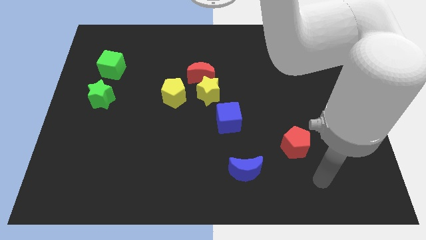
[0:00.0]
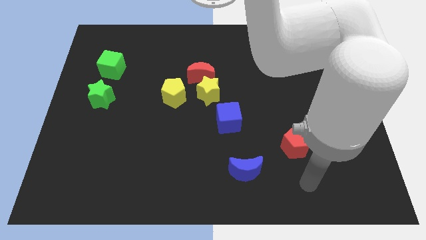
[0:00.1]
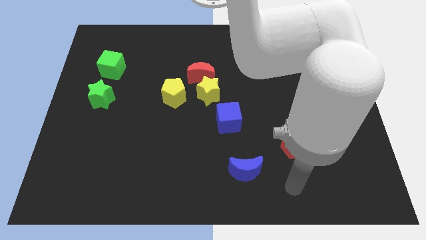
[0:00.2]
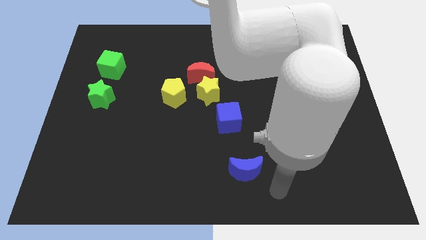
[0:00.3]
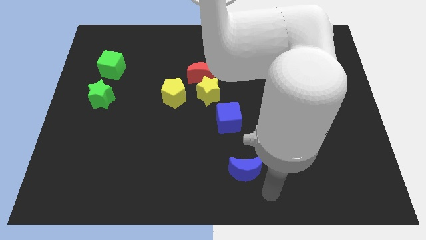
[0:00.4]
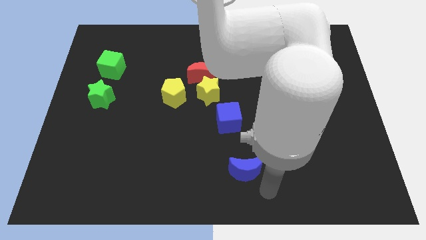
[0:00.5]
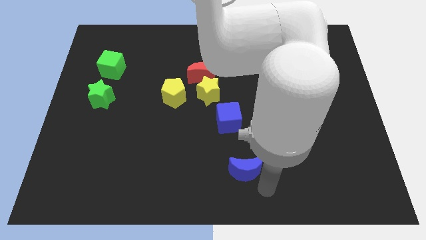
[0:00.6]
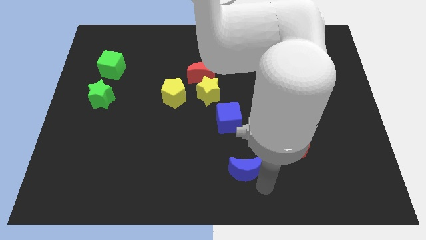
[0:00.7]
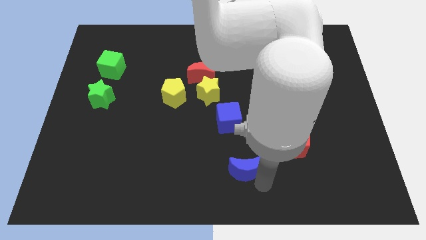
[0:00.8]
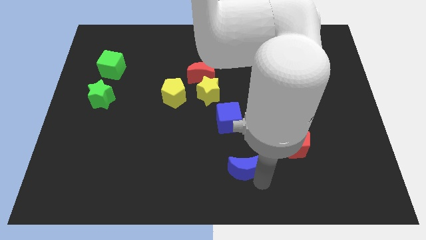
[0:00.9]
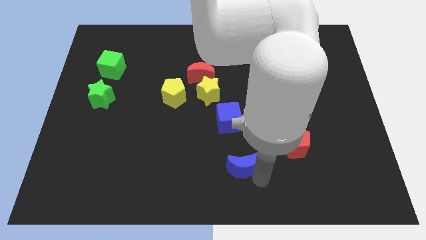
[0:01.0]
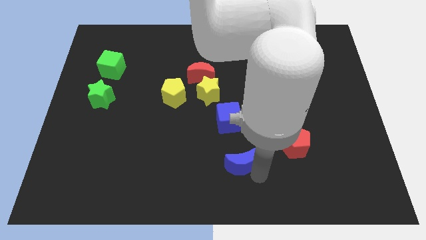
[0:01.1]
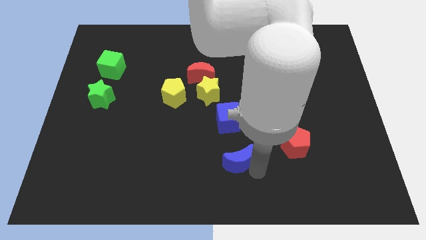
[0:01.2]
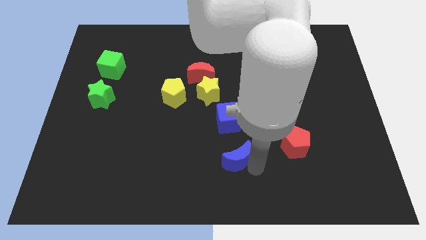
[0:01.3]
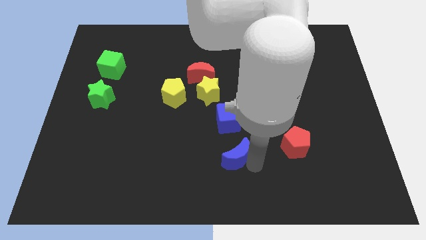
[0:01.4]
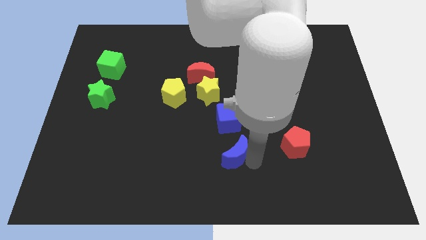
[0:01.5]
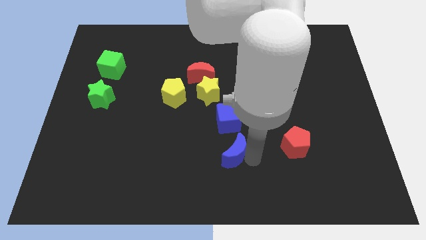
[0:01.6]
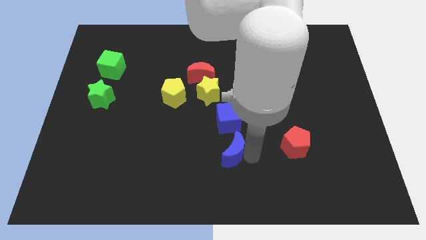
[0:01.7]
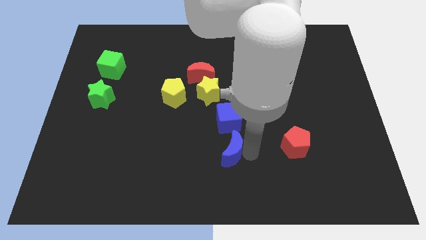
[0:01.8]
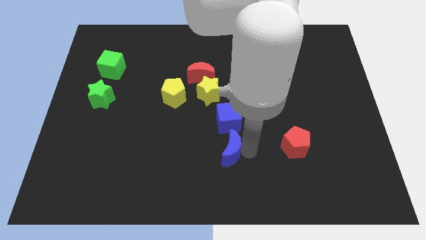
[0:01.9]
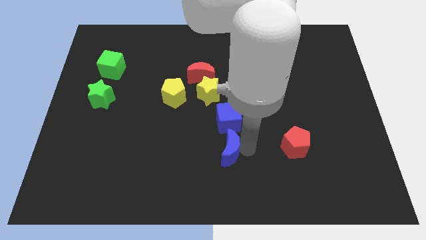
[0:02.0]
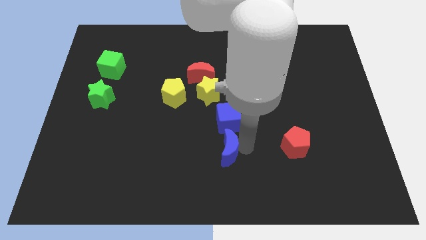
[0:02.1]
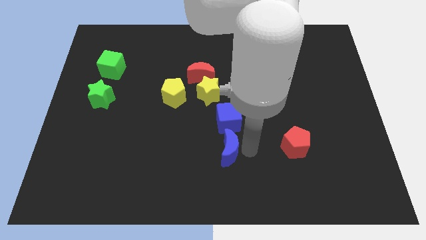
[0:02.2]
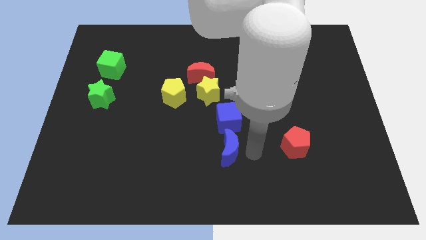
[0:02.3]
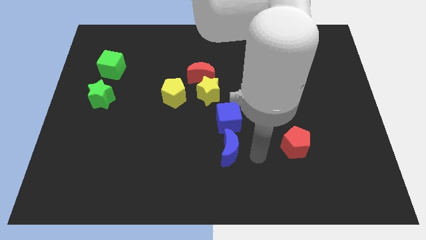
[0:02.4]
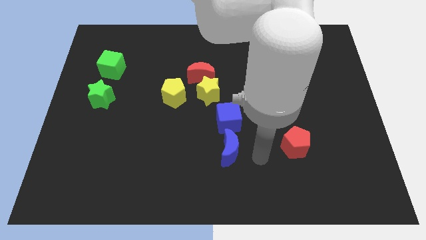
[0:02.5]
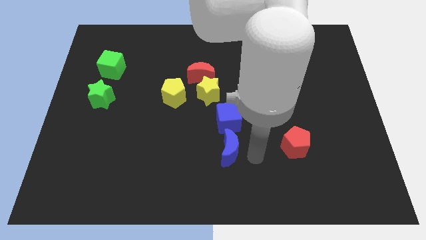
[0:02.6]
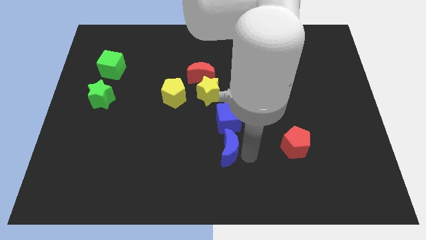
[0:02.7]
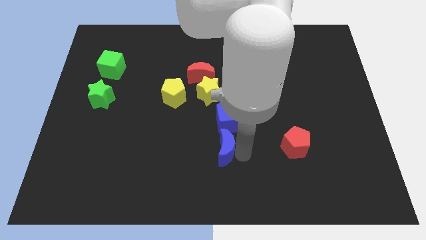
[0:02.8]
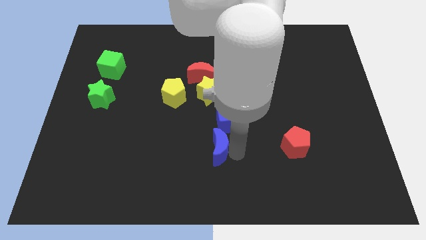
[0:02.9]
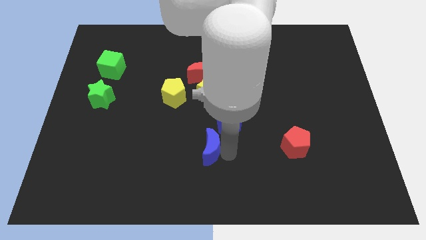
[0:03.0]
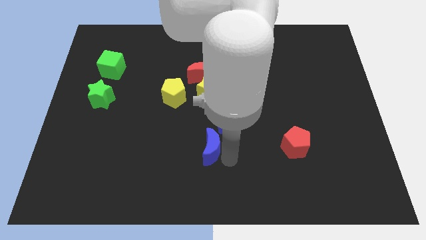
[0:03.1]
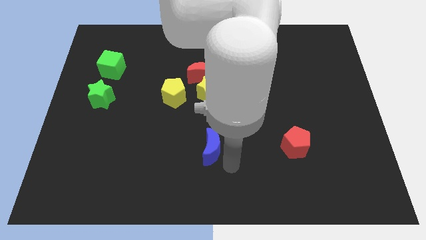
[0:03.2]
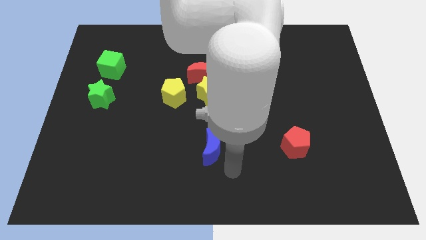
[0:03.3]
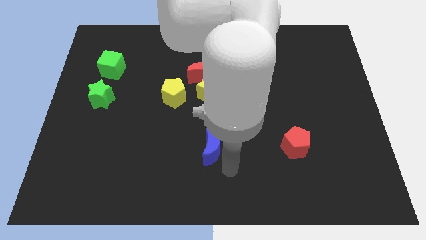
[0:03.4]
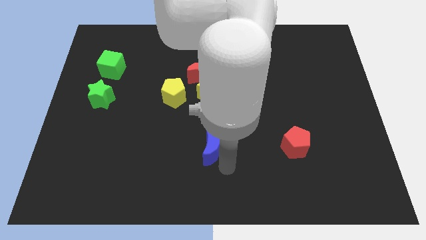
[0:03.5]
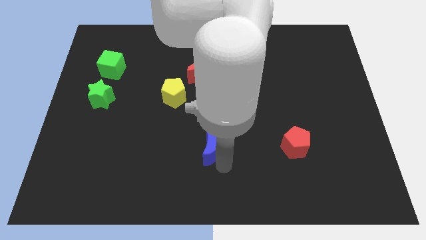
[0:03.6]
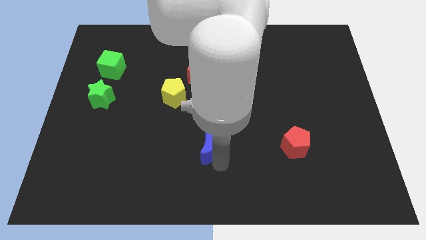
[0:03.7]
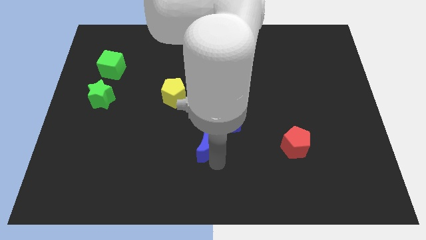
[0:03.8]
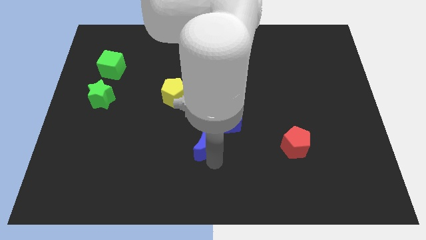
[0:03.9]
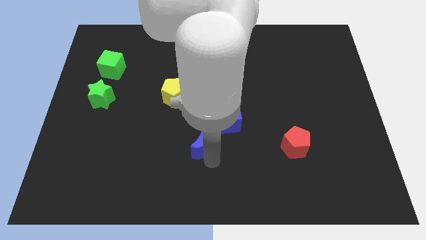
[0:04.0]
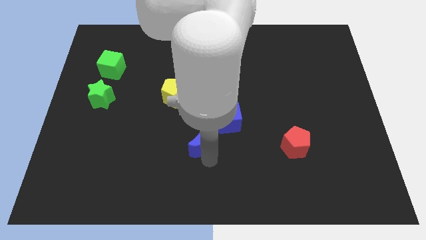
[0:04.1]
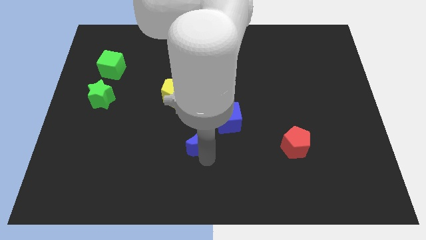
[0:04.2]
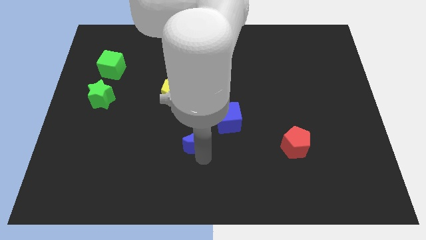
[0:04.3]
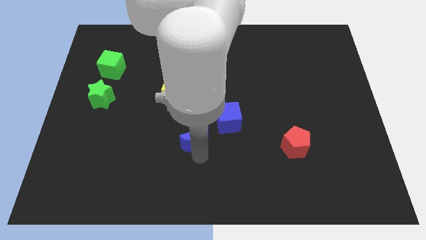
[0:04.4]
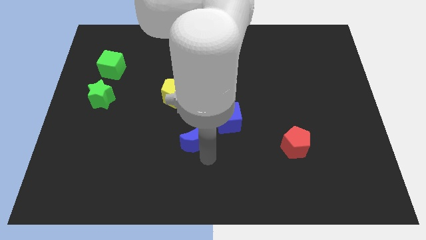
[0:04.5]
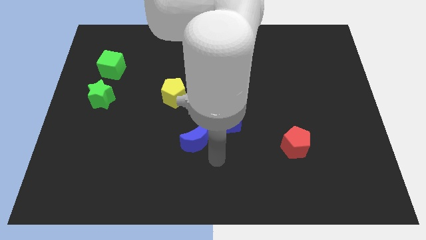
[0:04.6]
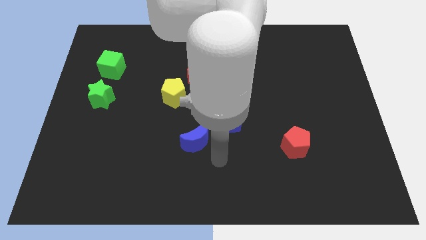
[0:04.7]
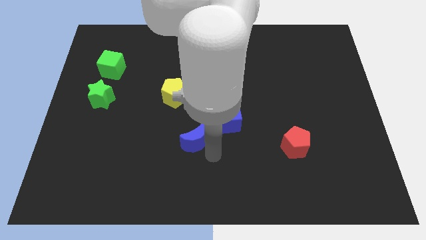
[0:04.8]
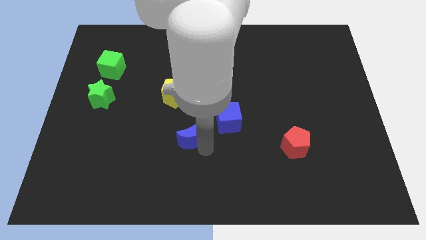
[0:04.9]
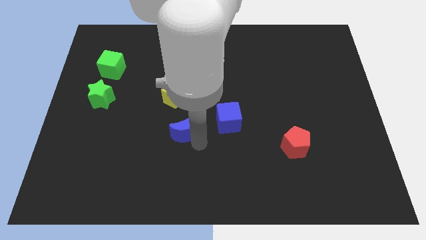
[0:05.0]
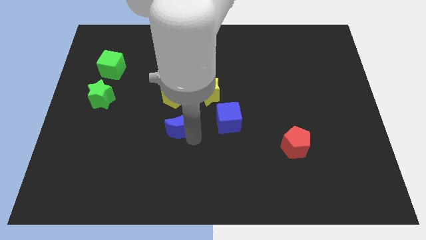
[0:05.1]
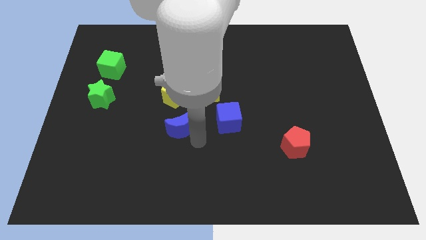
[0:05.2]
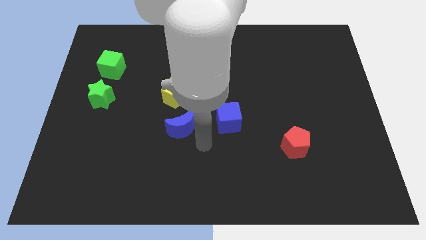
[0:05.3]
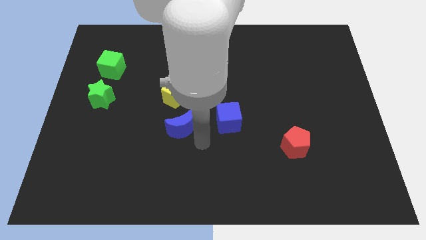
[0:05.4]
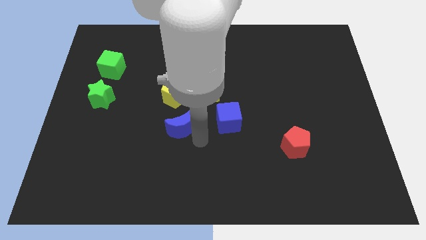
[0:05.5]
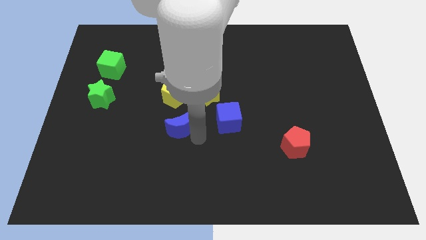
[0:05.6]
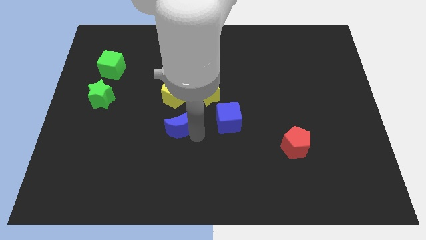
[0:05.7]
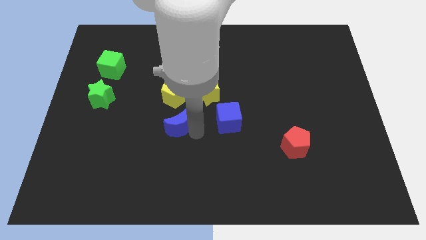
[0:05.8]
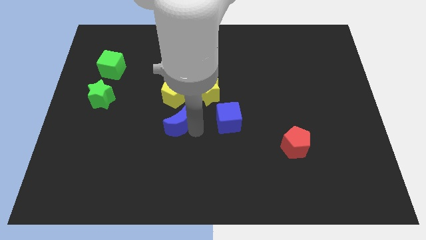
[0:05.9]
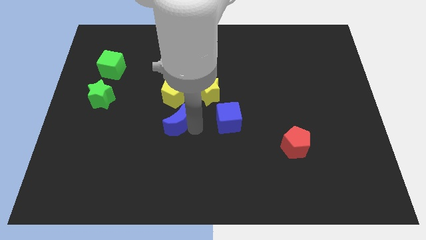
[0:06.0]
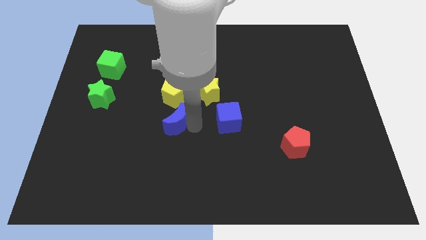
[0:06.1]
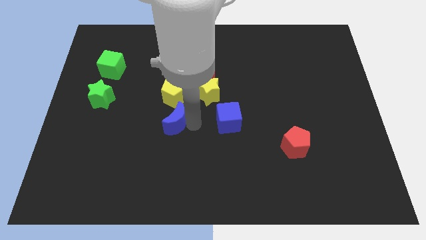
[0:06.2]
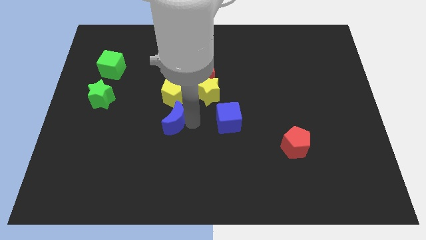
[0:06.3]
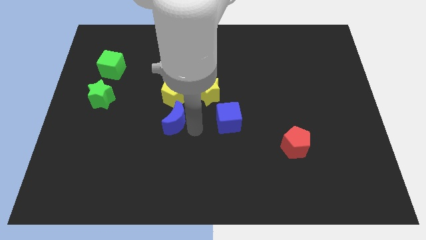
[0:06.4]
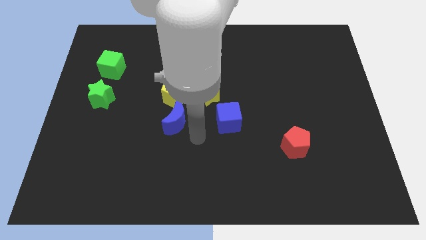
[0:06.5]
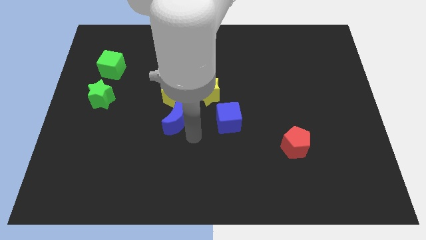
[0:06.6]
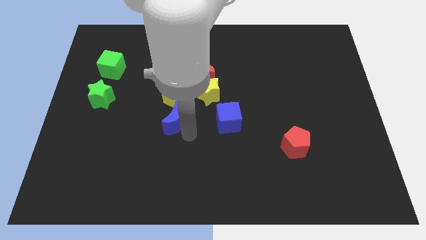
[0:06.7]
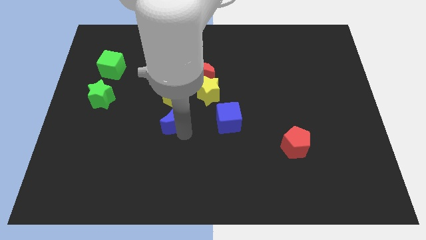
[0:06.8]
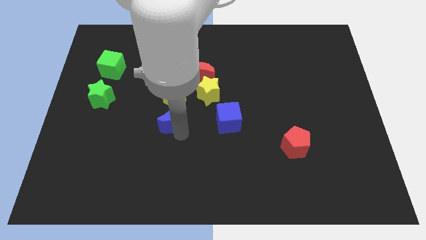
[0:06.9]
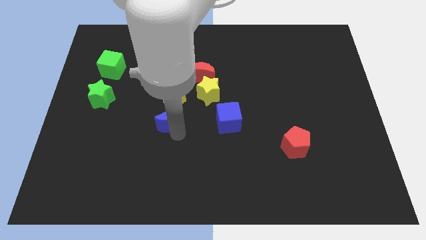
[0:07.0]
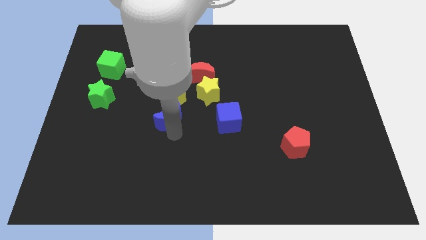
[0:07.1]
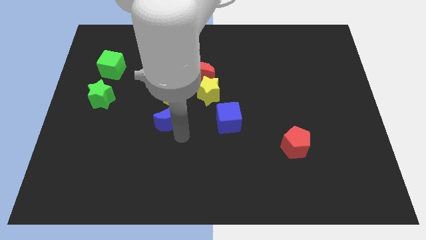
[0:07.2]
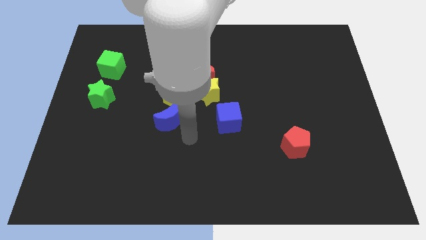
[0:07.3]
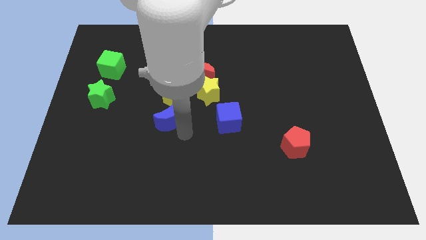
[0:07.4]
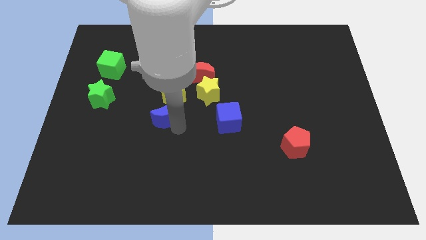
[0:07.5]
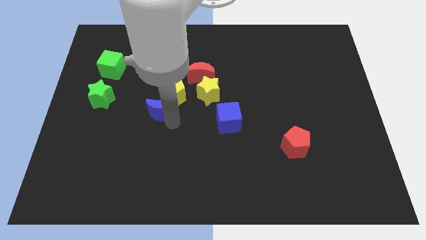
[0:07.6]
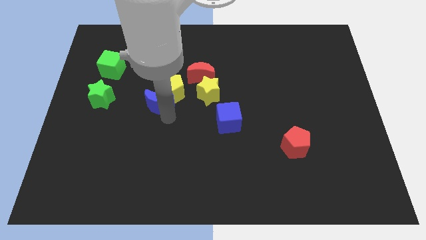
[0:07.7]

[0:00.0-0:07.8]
put the blue moon right of the green star
